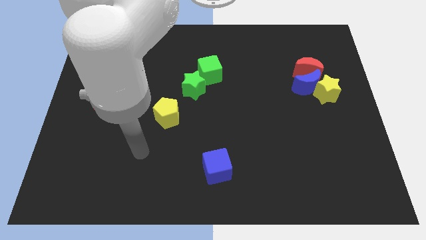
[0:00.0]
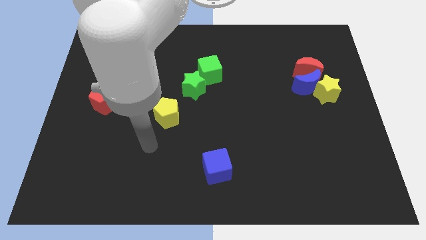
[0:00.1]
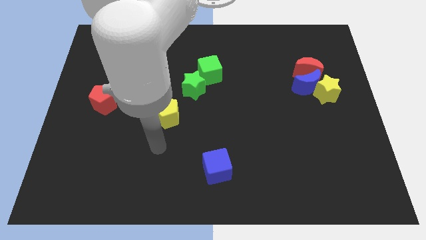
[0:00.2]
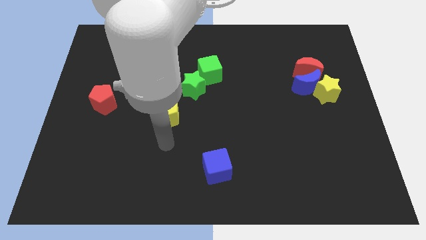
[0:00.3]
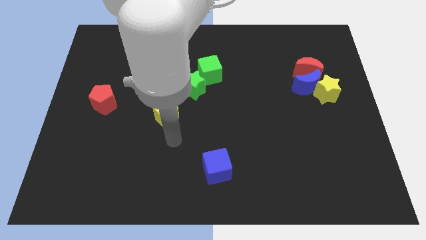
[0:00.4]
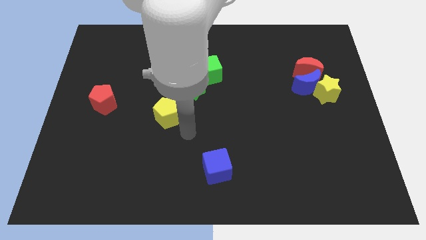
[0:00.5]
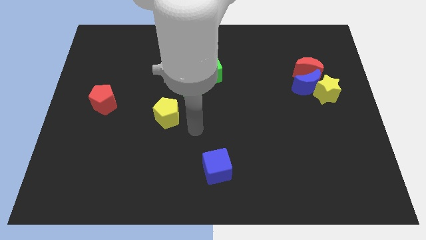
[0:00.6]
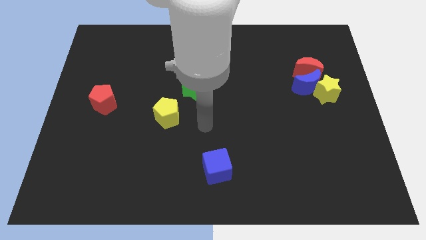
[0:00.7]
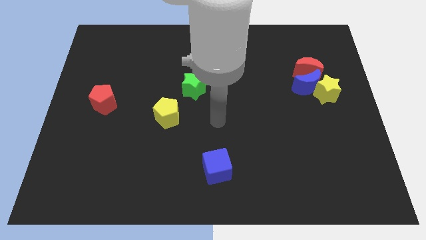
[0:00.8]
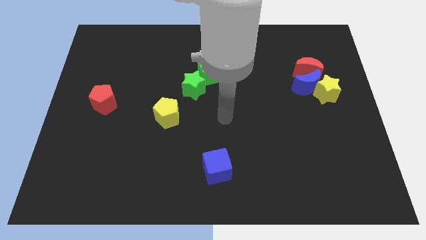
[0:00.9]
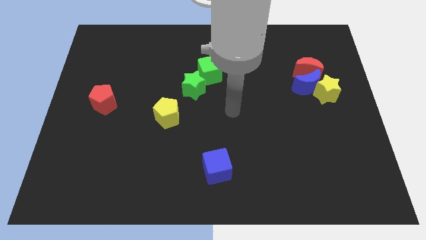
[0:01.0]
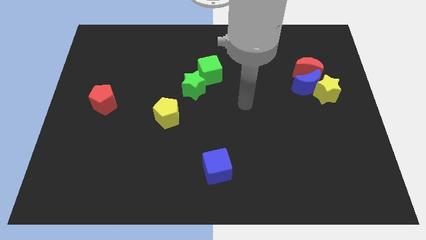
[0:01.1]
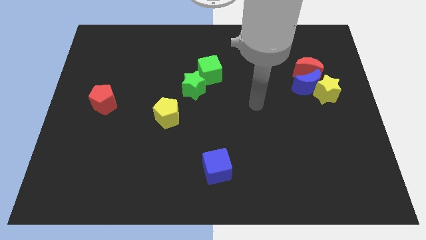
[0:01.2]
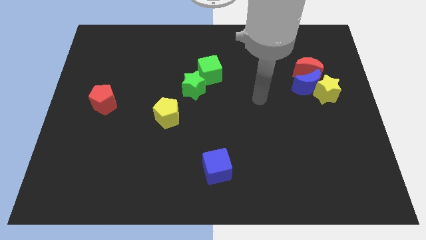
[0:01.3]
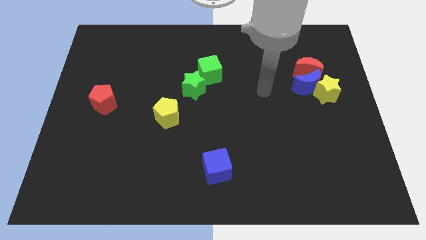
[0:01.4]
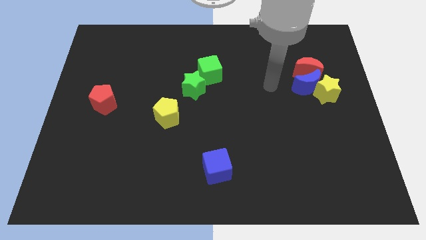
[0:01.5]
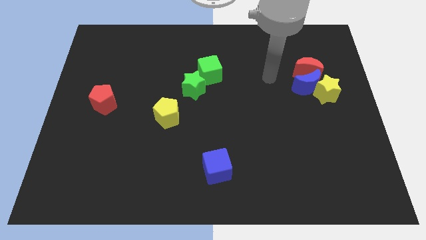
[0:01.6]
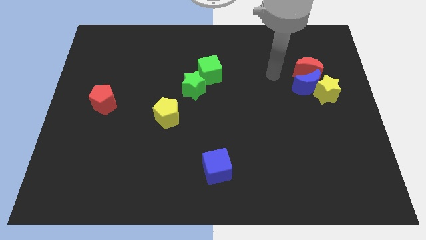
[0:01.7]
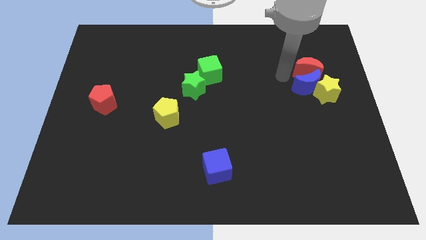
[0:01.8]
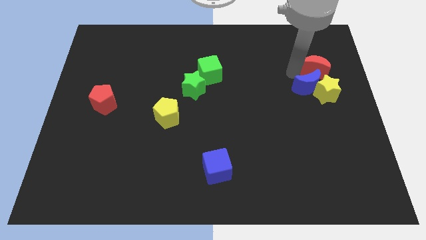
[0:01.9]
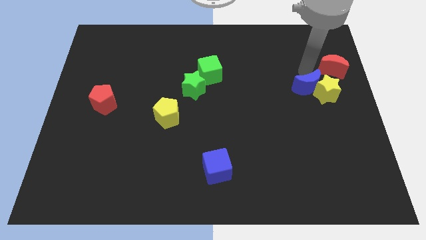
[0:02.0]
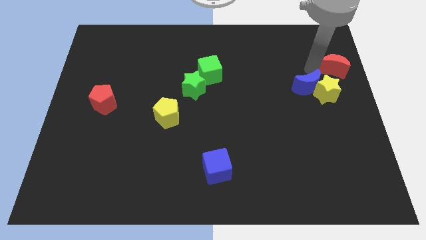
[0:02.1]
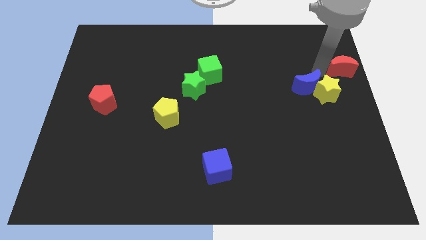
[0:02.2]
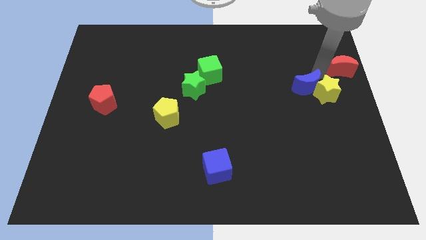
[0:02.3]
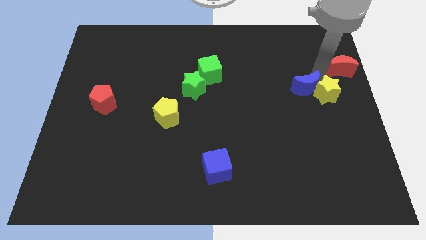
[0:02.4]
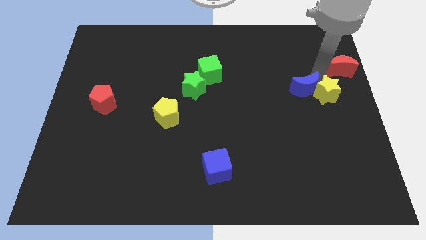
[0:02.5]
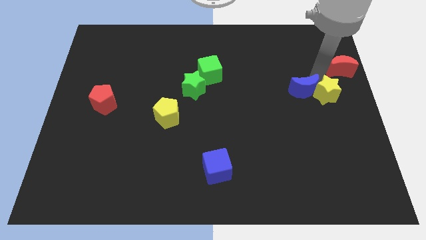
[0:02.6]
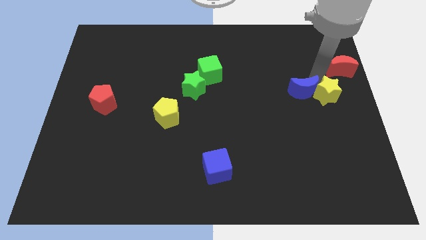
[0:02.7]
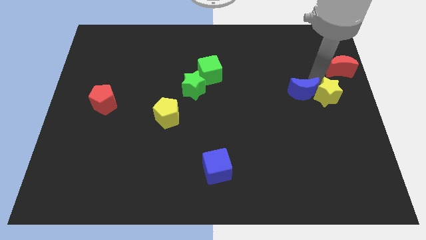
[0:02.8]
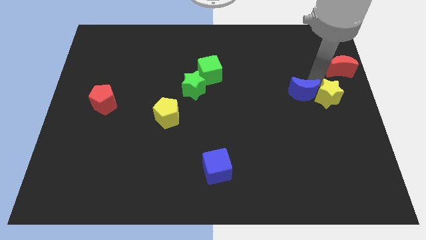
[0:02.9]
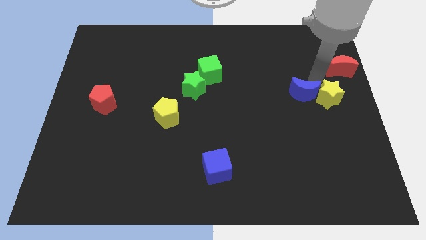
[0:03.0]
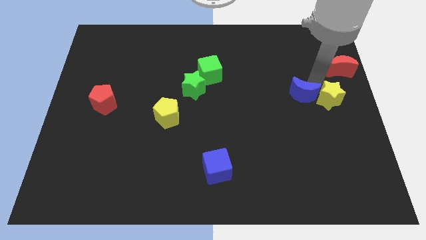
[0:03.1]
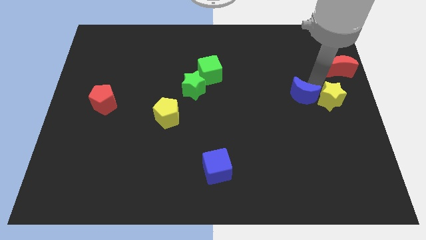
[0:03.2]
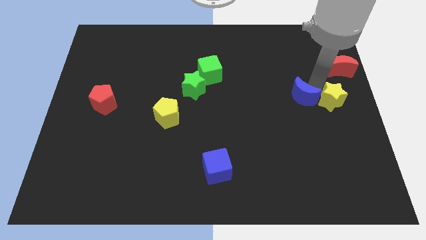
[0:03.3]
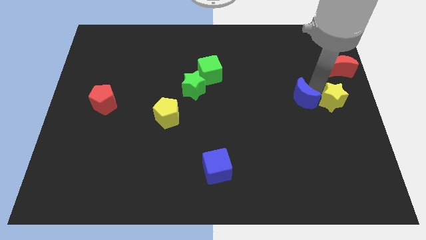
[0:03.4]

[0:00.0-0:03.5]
separate the blue moon from the yellow star and red moon

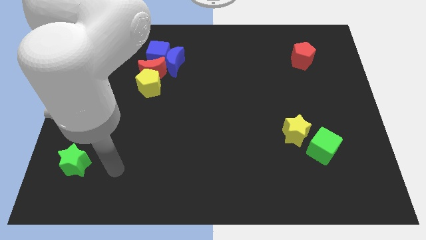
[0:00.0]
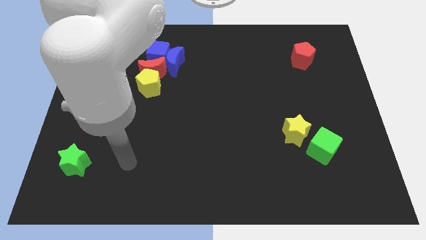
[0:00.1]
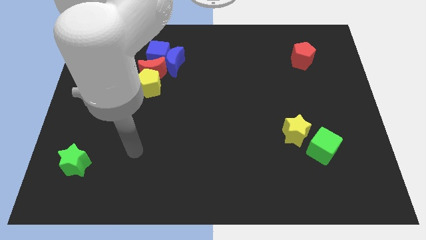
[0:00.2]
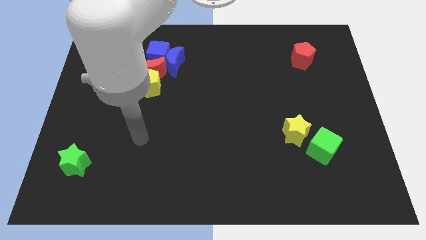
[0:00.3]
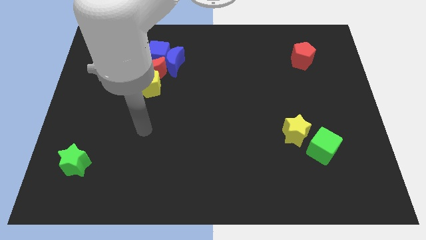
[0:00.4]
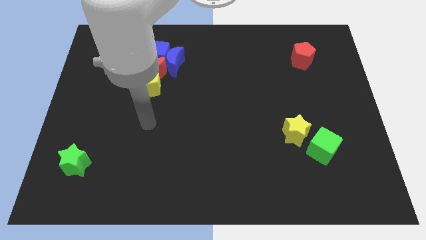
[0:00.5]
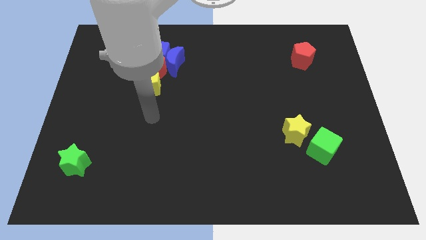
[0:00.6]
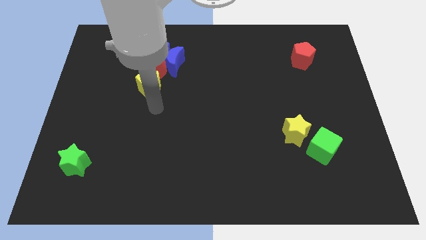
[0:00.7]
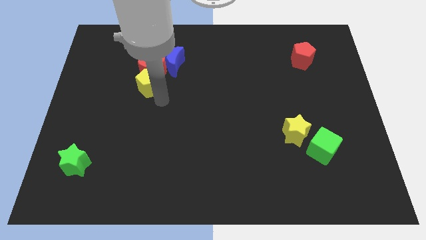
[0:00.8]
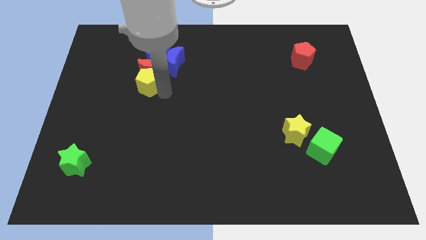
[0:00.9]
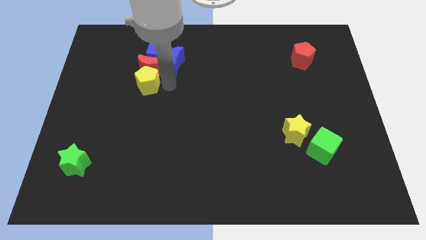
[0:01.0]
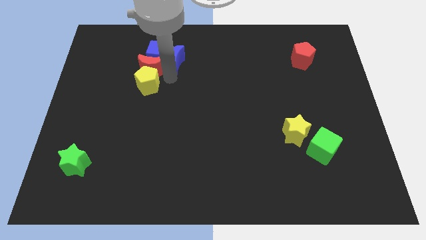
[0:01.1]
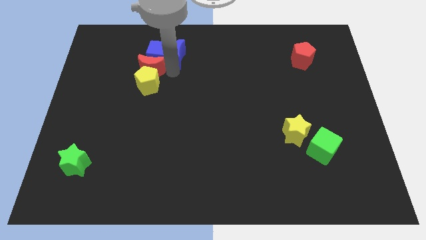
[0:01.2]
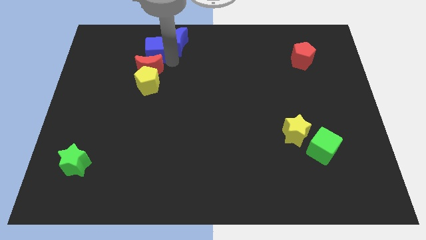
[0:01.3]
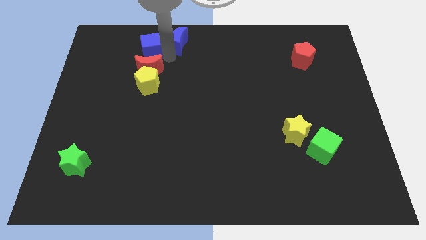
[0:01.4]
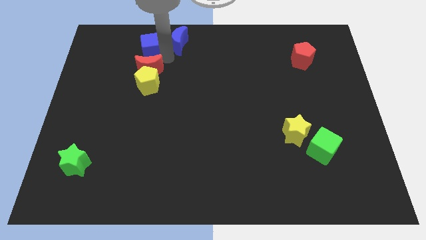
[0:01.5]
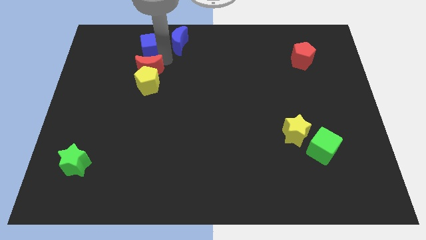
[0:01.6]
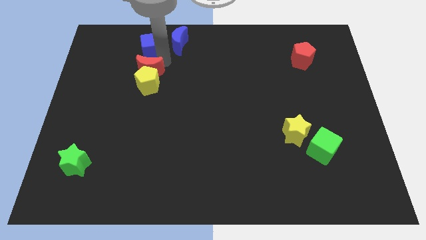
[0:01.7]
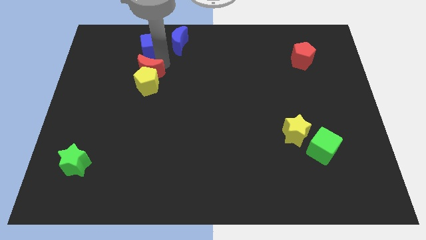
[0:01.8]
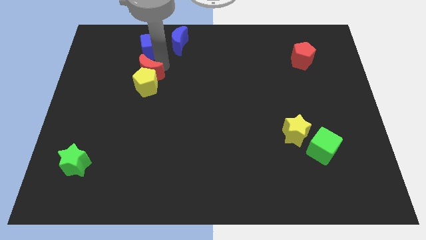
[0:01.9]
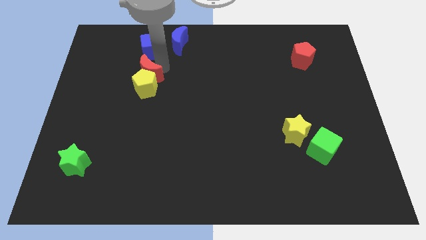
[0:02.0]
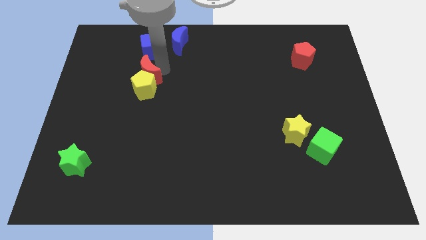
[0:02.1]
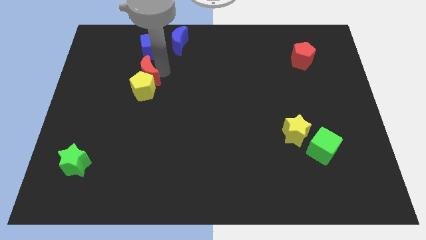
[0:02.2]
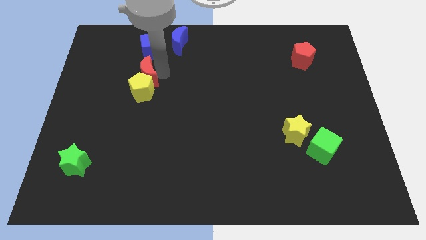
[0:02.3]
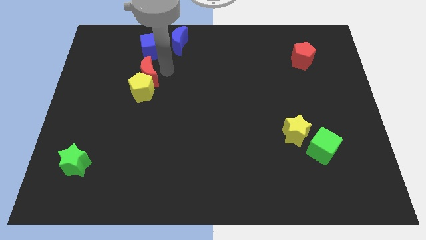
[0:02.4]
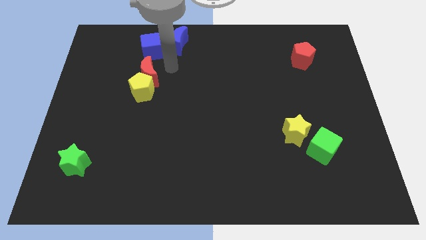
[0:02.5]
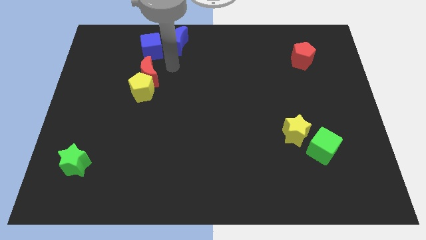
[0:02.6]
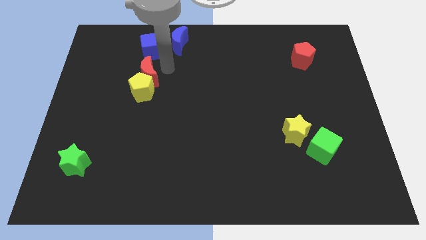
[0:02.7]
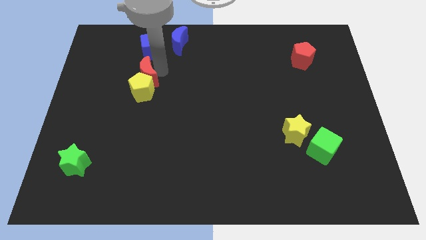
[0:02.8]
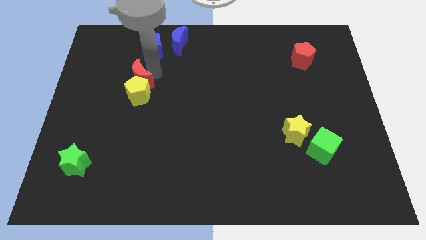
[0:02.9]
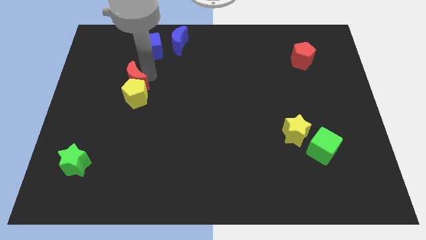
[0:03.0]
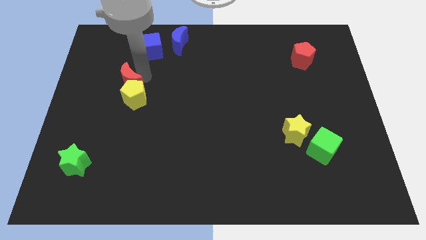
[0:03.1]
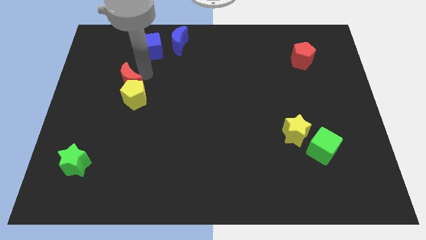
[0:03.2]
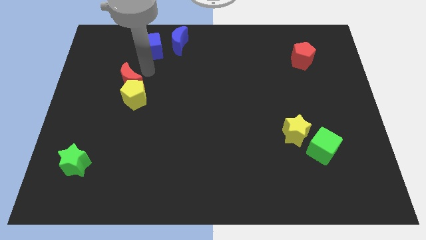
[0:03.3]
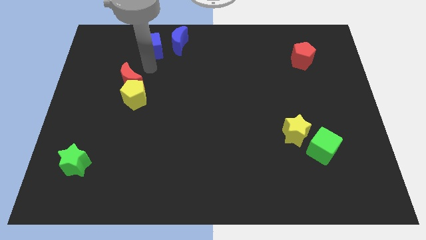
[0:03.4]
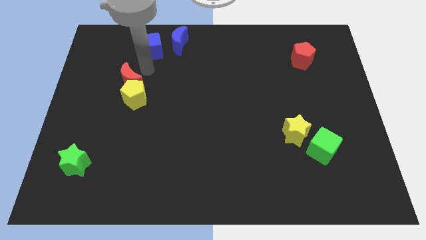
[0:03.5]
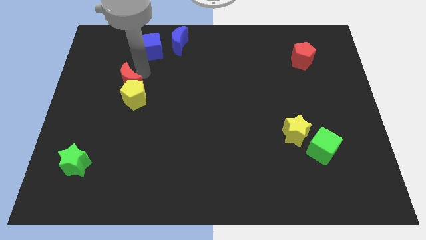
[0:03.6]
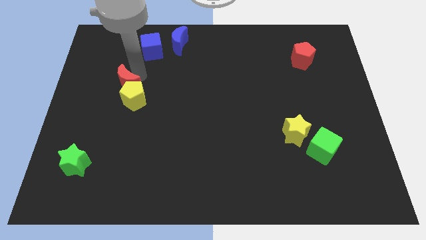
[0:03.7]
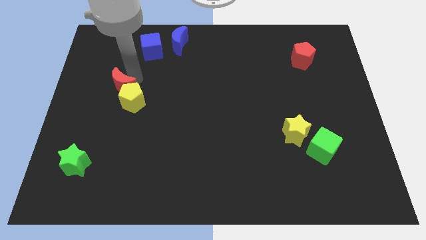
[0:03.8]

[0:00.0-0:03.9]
move the red moon away from the yellow pentagon, blue cube, and blue moon

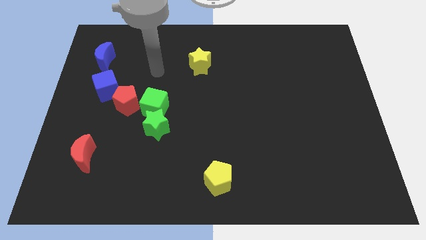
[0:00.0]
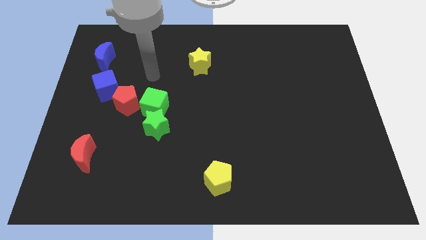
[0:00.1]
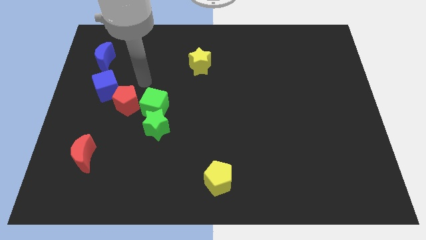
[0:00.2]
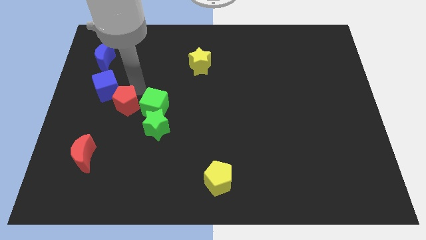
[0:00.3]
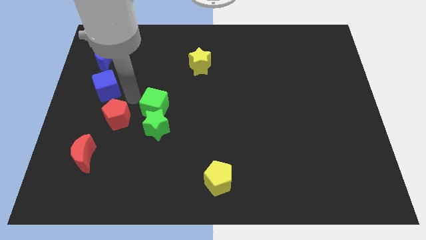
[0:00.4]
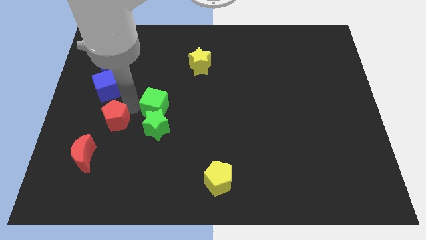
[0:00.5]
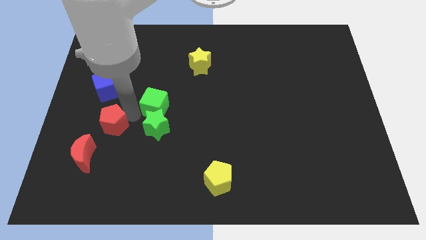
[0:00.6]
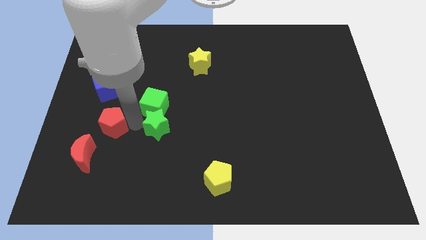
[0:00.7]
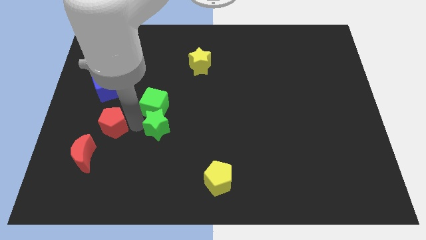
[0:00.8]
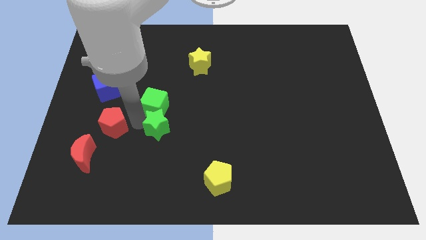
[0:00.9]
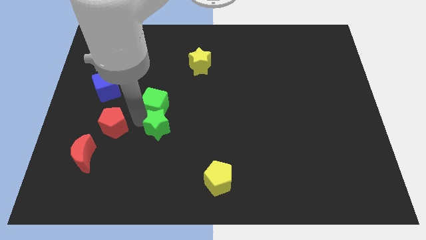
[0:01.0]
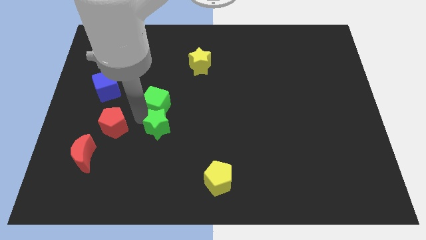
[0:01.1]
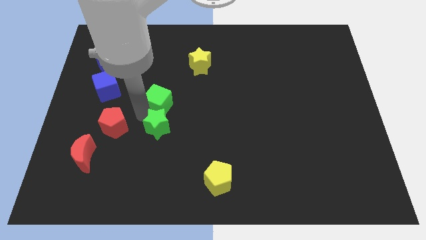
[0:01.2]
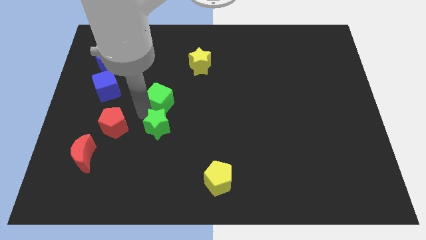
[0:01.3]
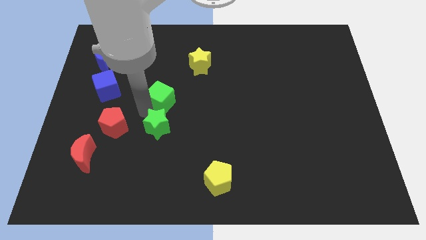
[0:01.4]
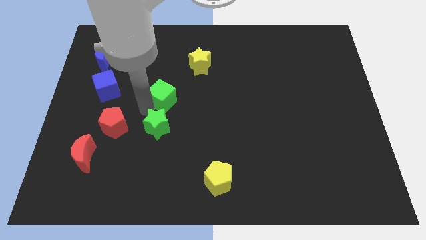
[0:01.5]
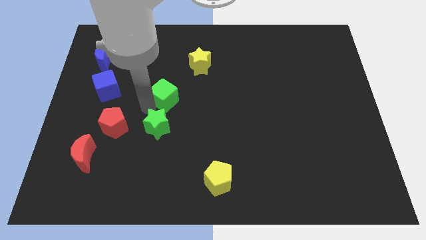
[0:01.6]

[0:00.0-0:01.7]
separate the green cube from the green star and red pentagon

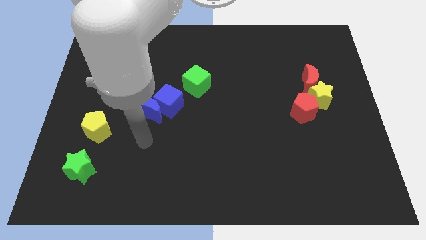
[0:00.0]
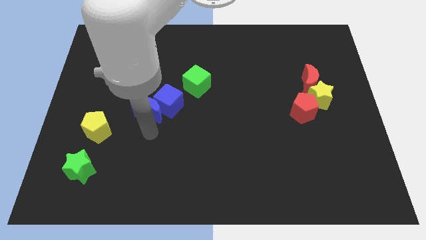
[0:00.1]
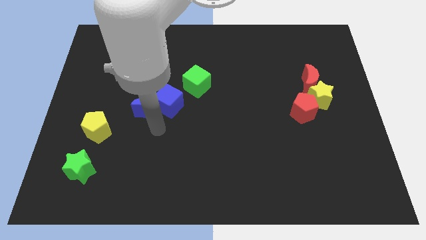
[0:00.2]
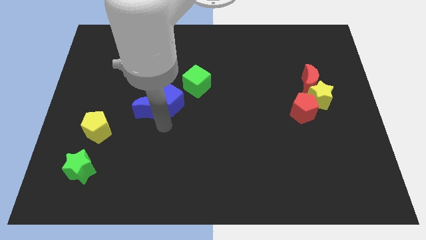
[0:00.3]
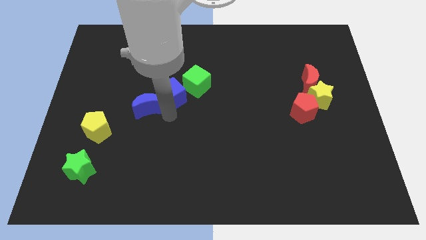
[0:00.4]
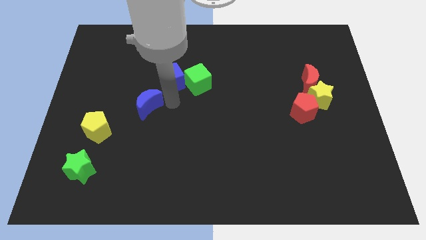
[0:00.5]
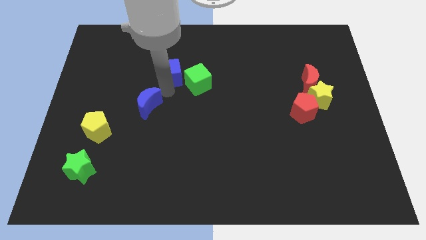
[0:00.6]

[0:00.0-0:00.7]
separate the blue moon from the blue cube
